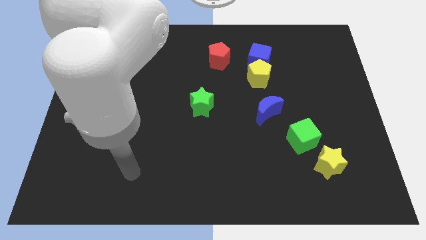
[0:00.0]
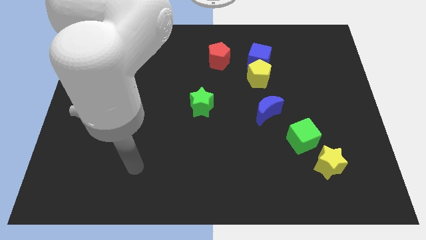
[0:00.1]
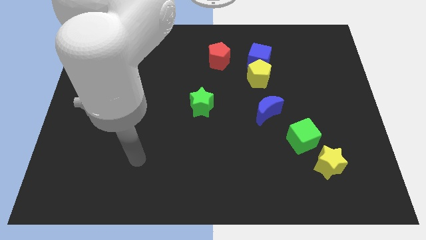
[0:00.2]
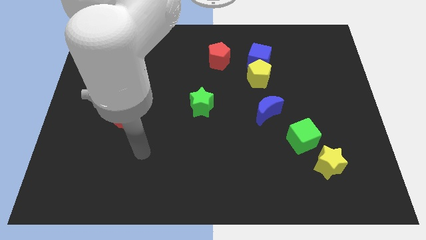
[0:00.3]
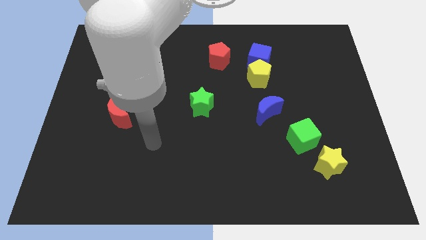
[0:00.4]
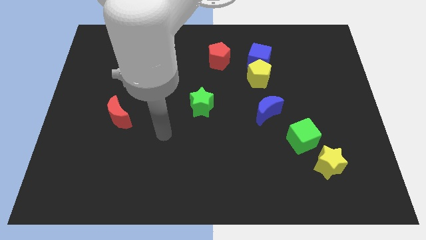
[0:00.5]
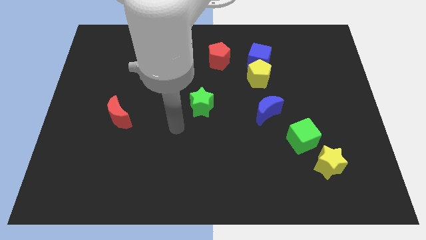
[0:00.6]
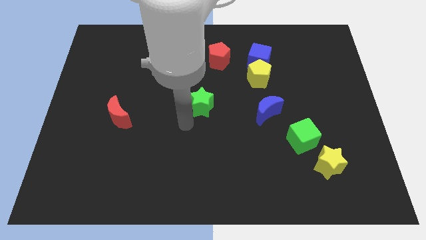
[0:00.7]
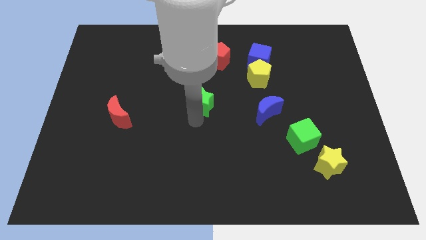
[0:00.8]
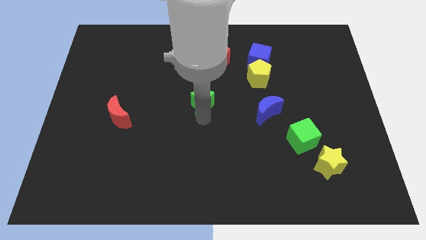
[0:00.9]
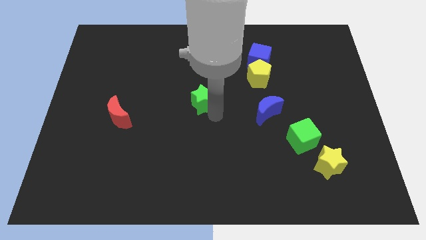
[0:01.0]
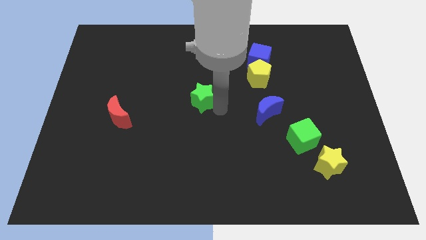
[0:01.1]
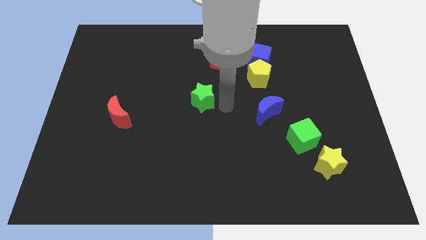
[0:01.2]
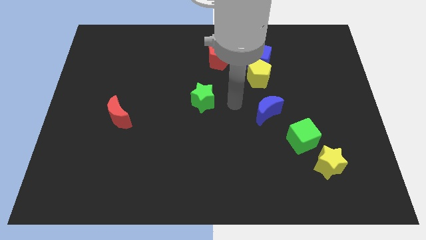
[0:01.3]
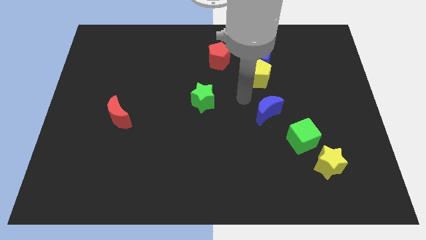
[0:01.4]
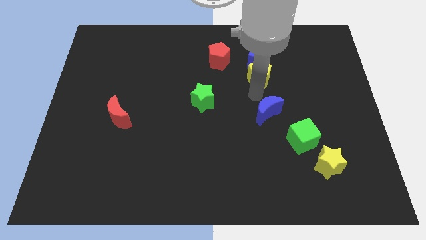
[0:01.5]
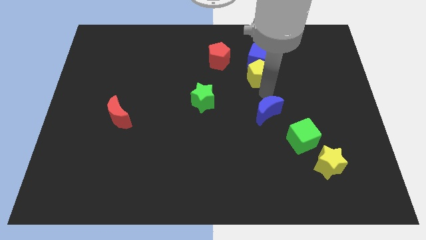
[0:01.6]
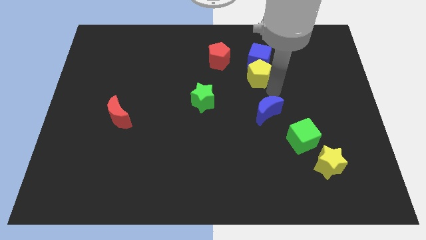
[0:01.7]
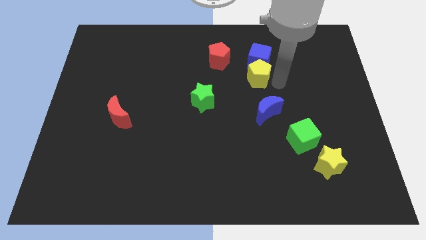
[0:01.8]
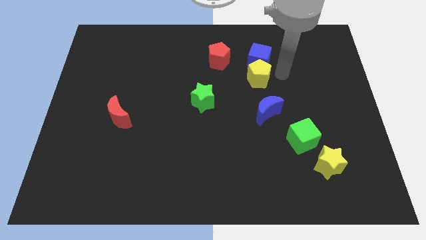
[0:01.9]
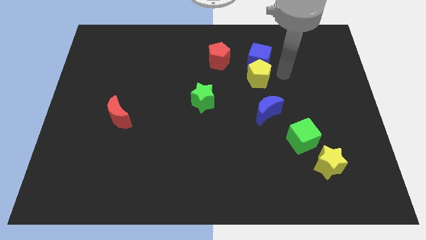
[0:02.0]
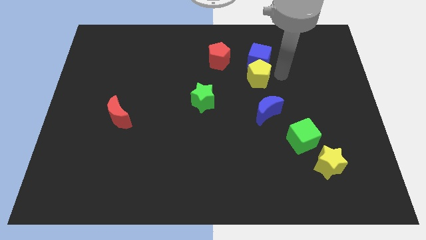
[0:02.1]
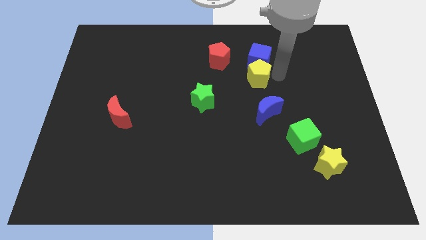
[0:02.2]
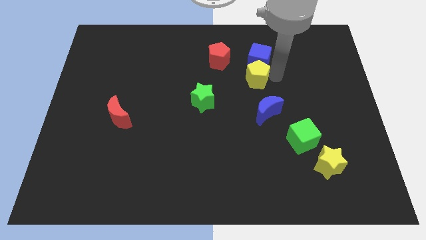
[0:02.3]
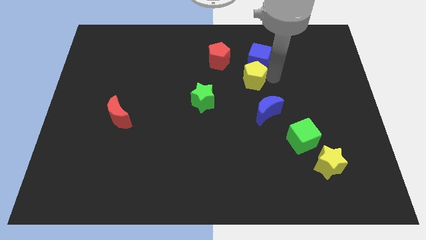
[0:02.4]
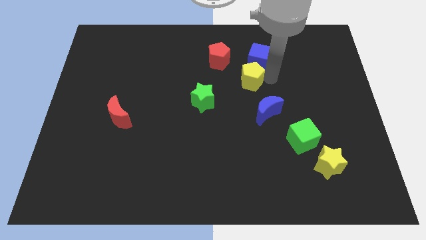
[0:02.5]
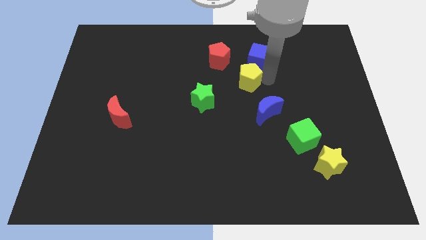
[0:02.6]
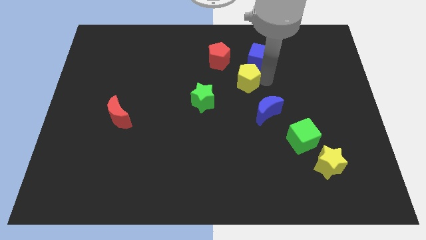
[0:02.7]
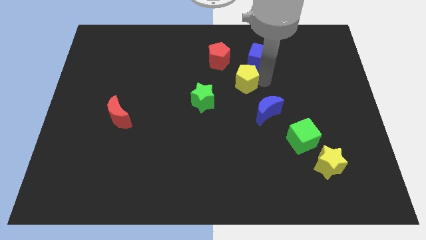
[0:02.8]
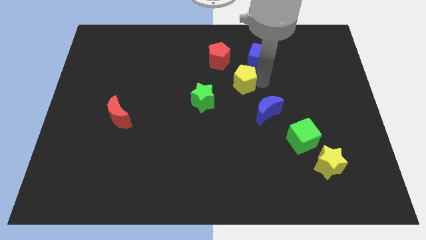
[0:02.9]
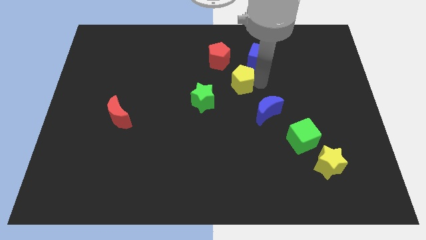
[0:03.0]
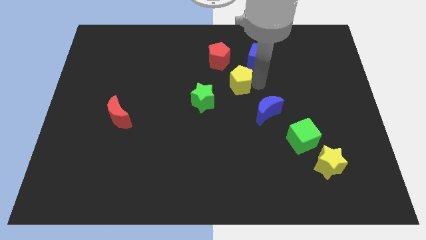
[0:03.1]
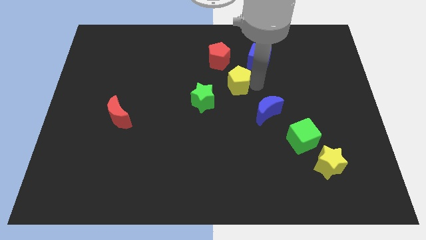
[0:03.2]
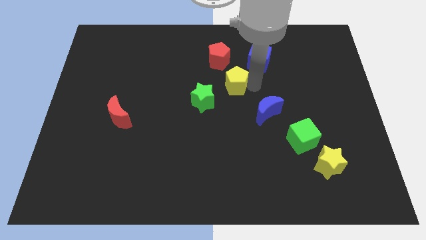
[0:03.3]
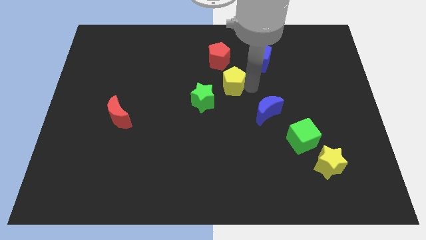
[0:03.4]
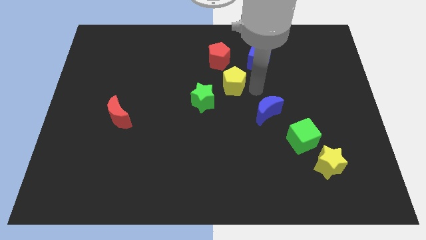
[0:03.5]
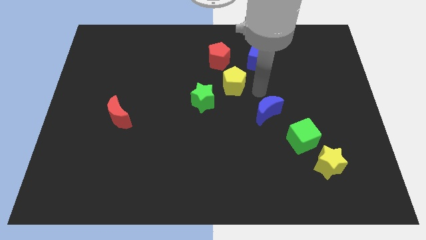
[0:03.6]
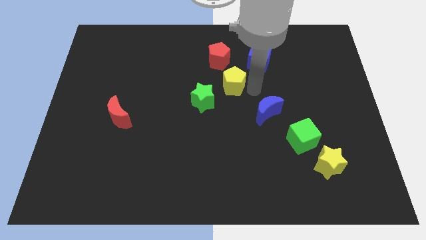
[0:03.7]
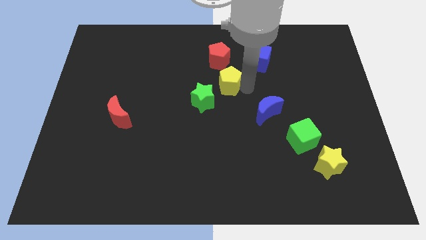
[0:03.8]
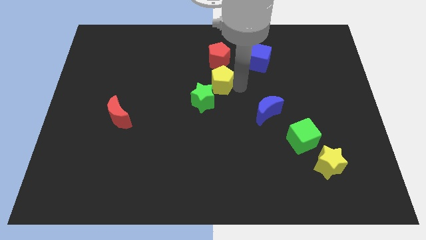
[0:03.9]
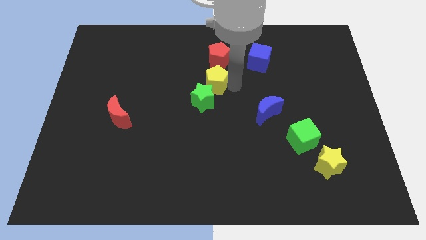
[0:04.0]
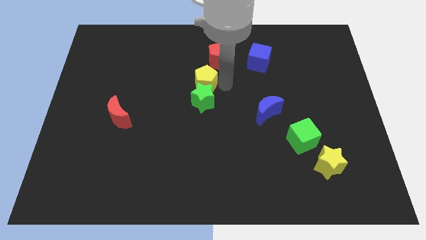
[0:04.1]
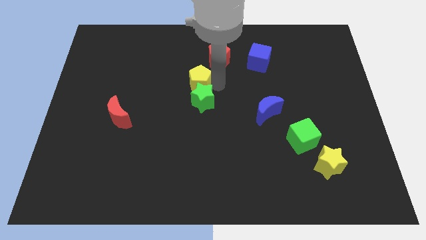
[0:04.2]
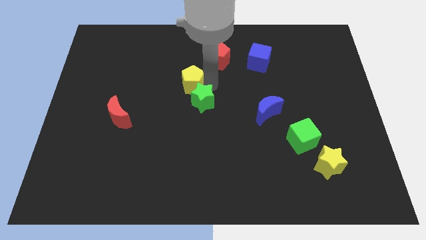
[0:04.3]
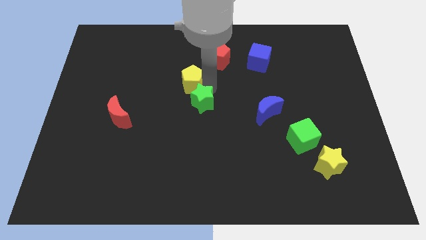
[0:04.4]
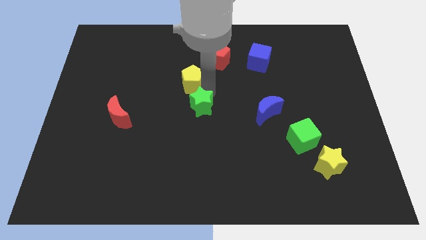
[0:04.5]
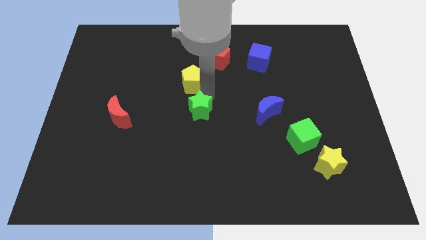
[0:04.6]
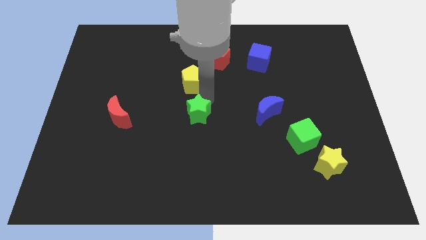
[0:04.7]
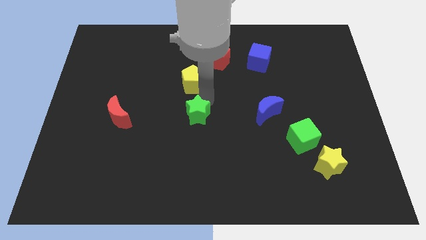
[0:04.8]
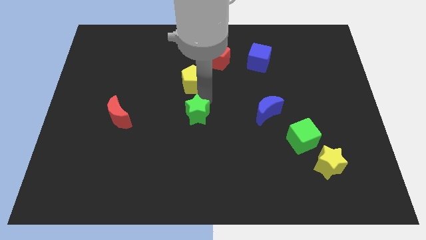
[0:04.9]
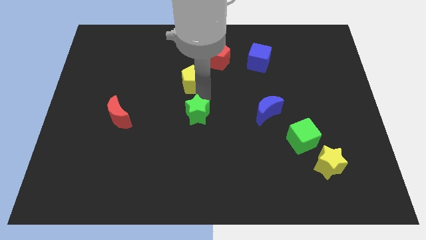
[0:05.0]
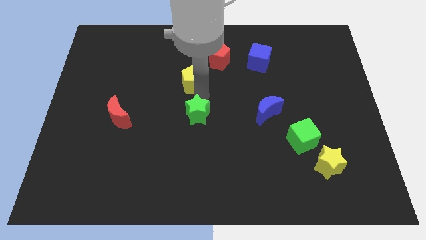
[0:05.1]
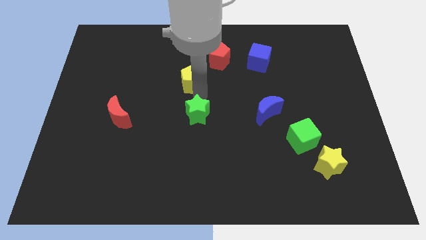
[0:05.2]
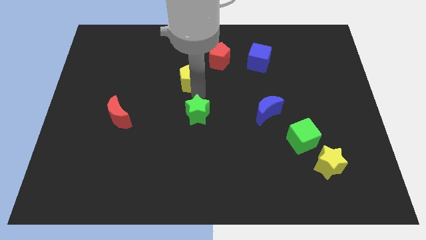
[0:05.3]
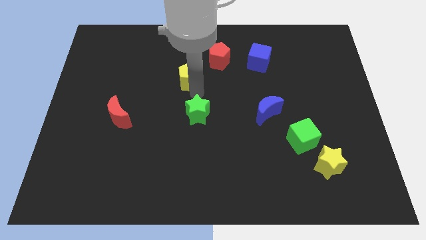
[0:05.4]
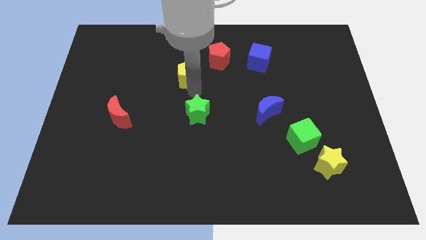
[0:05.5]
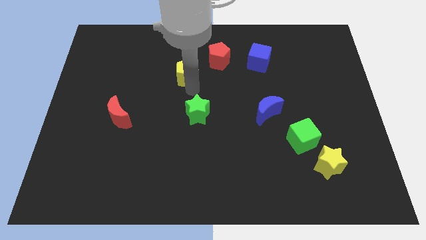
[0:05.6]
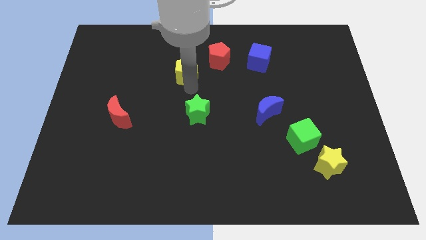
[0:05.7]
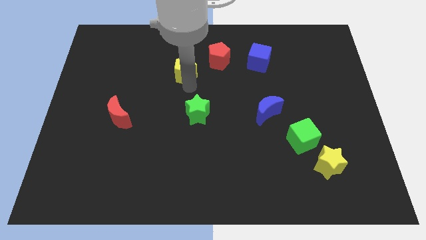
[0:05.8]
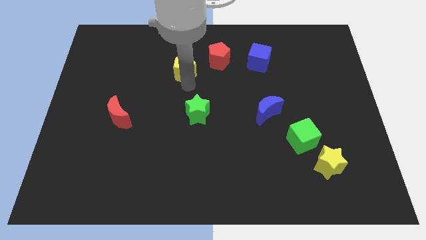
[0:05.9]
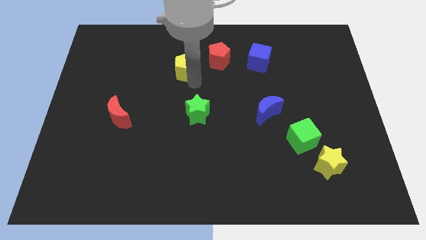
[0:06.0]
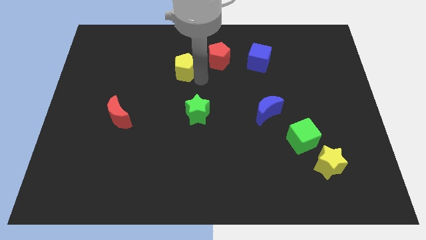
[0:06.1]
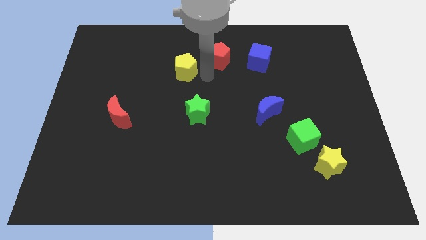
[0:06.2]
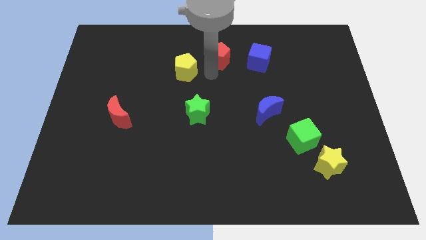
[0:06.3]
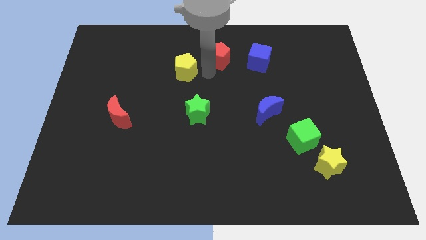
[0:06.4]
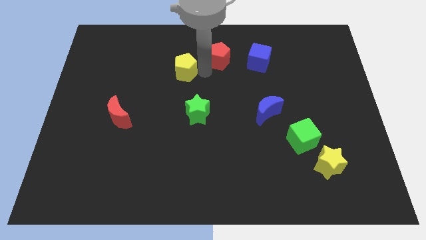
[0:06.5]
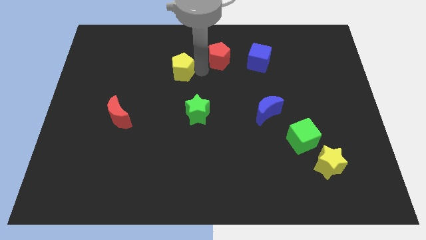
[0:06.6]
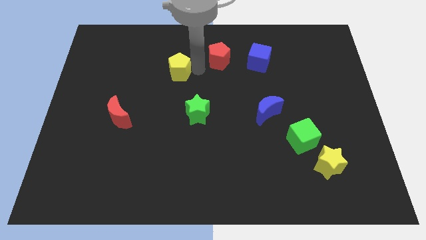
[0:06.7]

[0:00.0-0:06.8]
move the yellow pentagon to the left

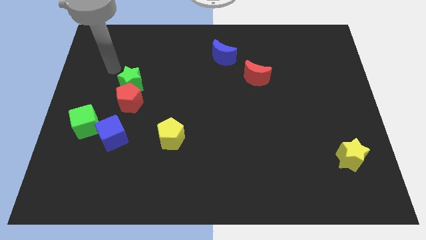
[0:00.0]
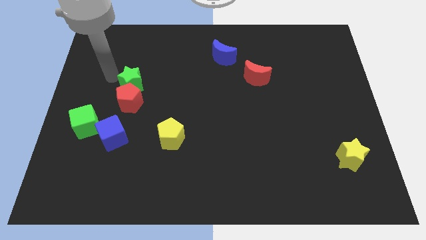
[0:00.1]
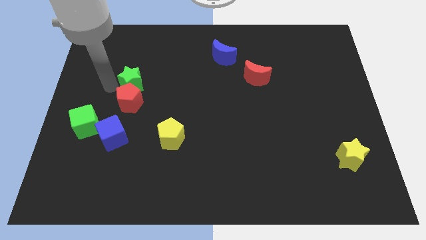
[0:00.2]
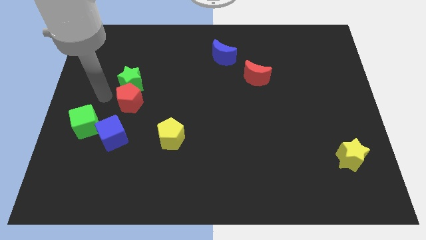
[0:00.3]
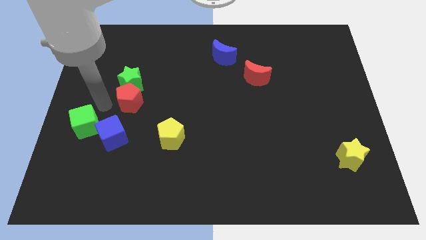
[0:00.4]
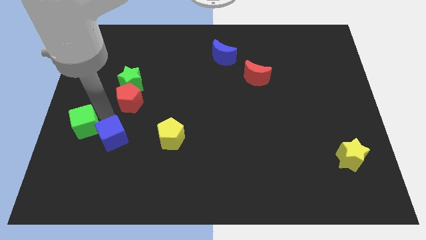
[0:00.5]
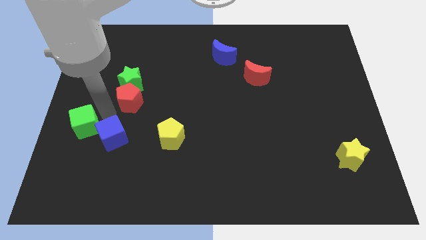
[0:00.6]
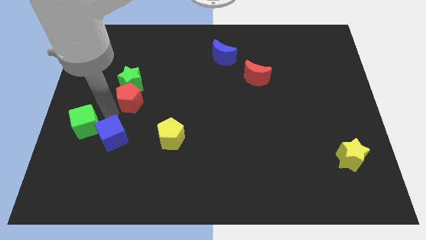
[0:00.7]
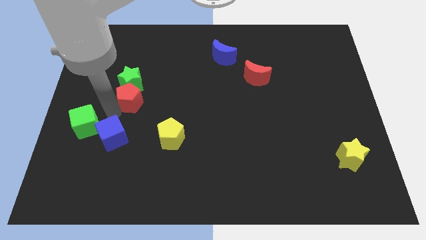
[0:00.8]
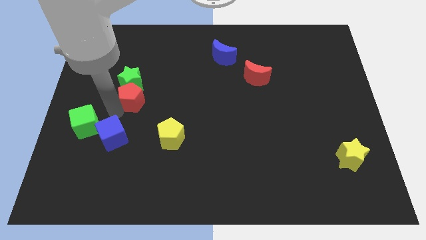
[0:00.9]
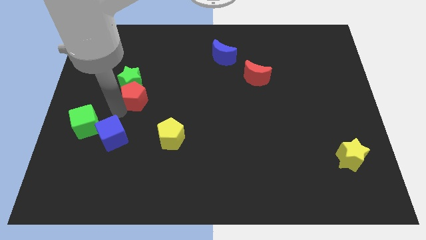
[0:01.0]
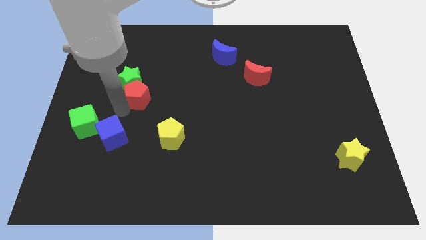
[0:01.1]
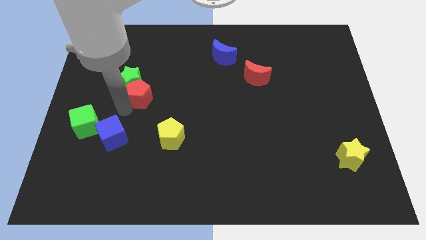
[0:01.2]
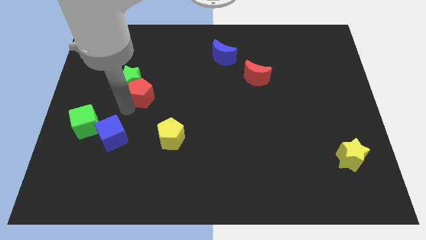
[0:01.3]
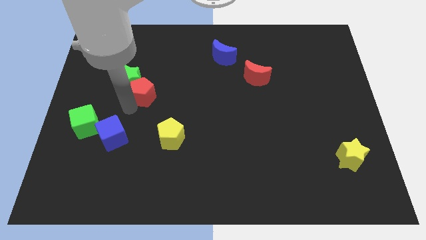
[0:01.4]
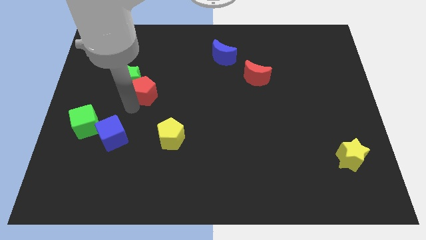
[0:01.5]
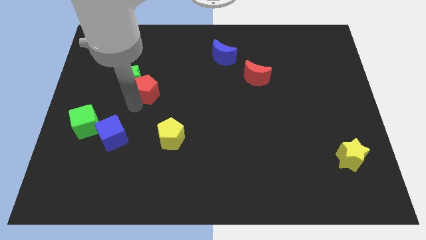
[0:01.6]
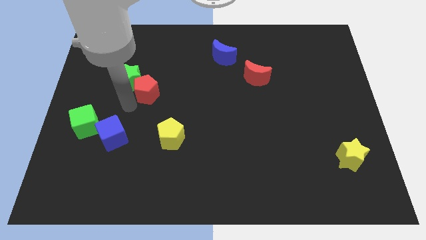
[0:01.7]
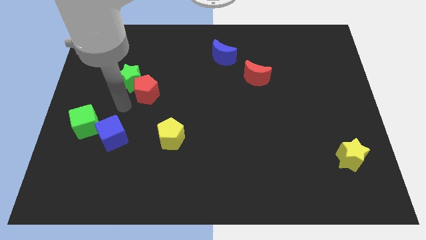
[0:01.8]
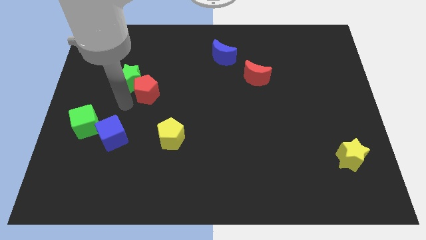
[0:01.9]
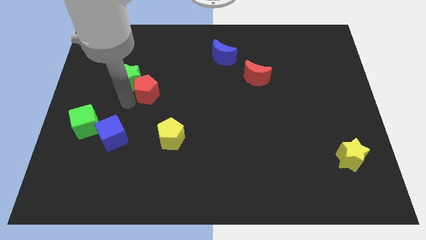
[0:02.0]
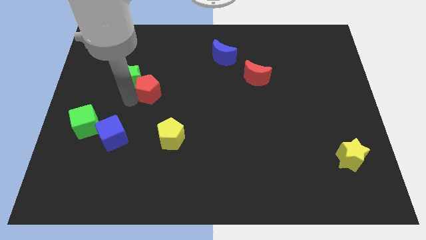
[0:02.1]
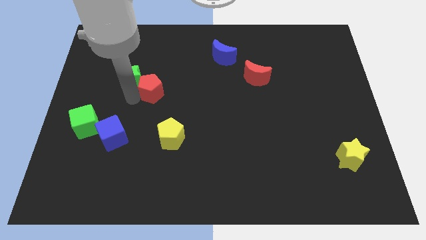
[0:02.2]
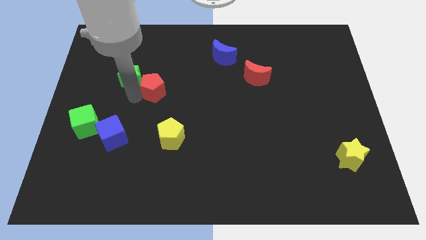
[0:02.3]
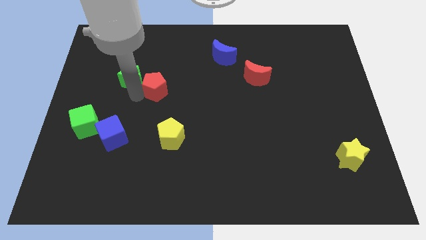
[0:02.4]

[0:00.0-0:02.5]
slightly move the red pentagon up and to the right
